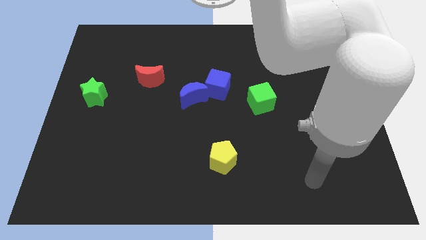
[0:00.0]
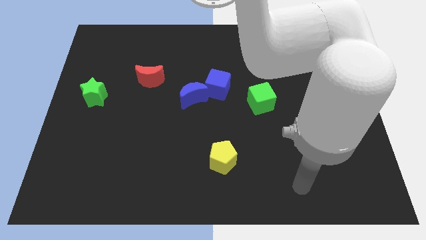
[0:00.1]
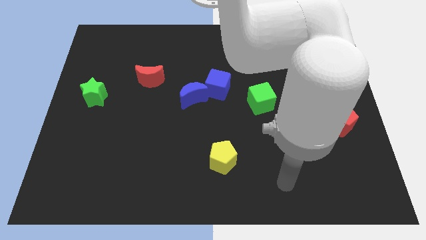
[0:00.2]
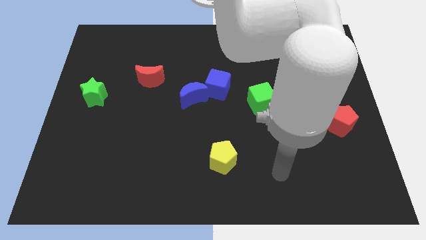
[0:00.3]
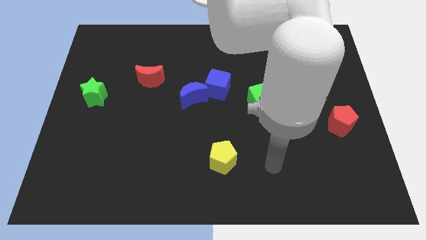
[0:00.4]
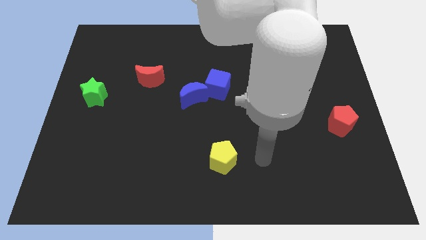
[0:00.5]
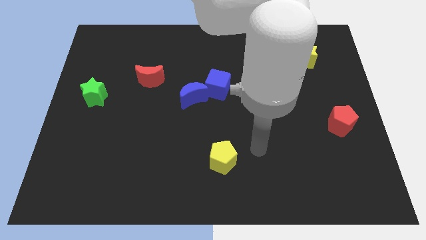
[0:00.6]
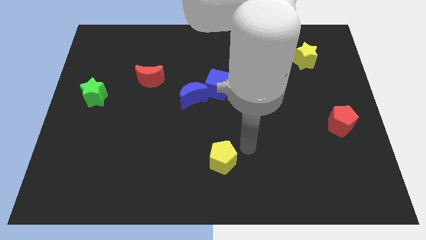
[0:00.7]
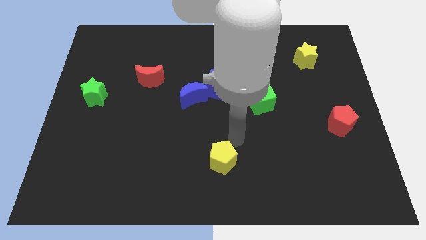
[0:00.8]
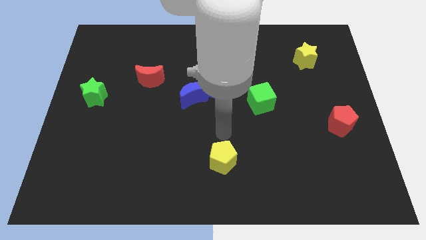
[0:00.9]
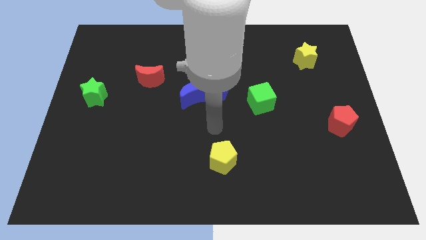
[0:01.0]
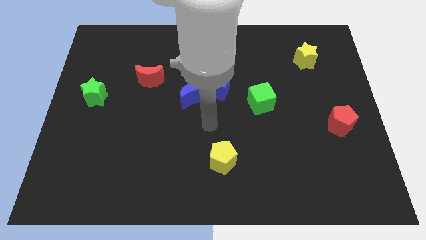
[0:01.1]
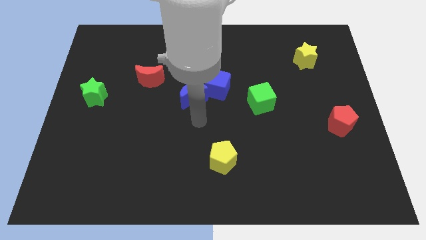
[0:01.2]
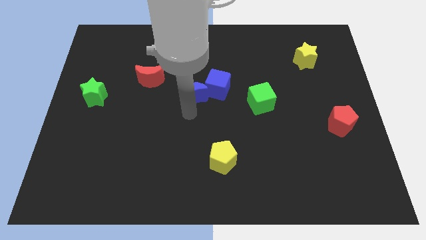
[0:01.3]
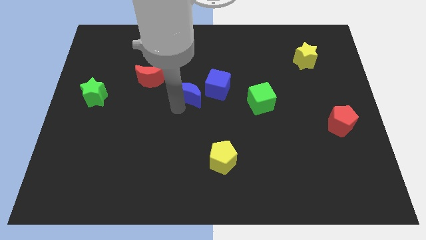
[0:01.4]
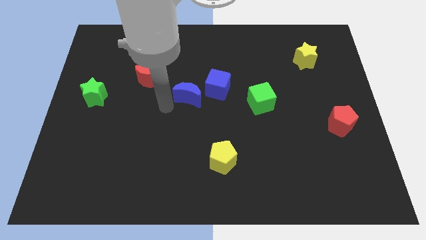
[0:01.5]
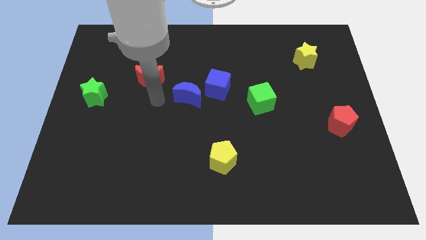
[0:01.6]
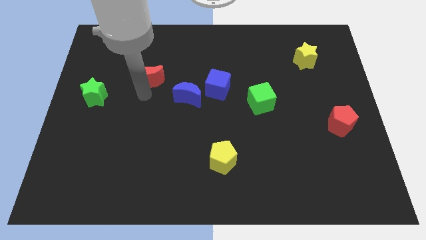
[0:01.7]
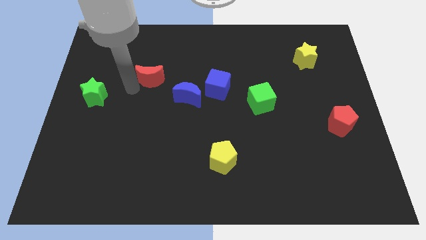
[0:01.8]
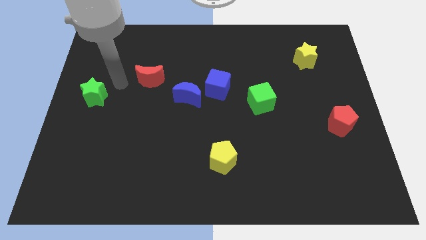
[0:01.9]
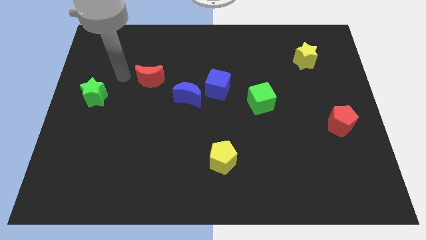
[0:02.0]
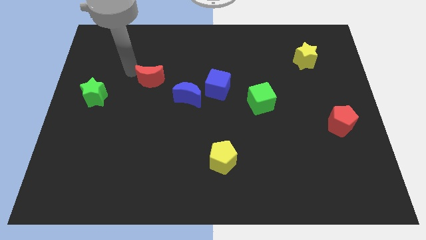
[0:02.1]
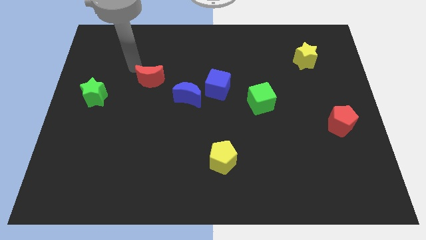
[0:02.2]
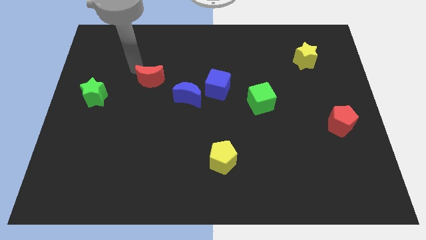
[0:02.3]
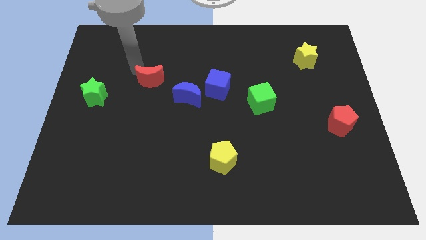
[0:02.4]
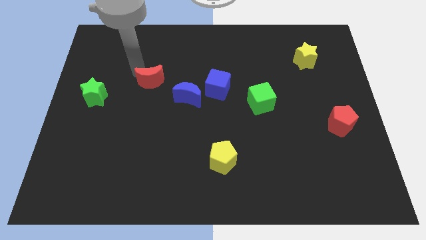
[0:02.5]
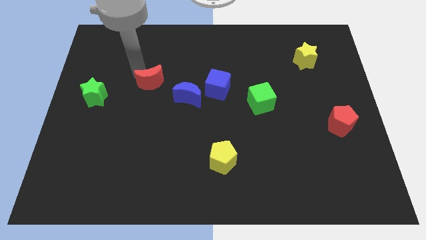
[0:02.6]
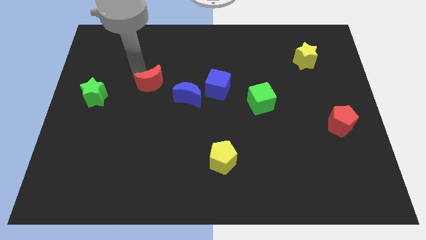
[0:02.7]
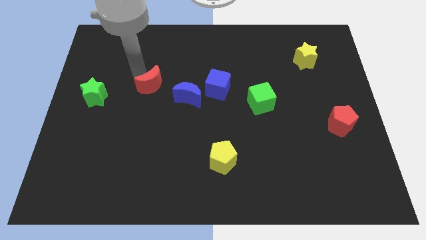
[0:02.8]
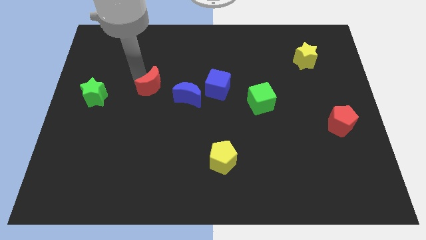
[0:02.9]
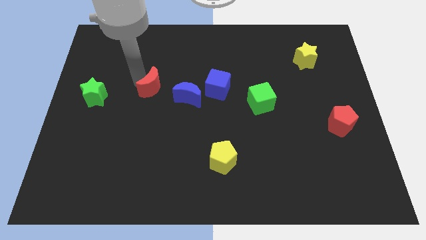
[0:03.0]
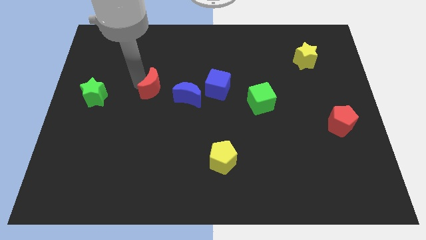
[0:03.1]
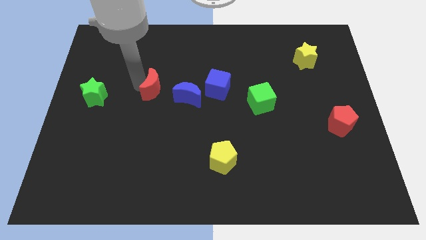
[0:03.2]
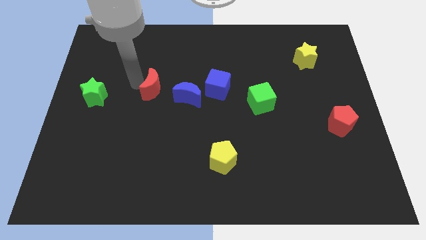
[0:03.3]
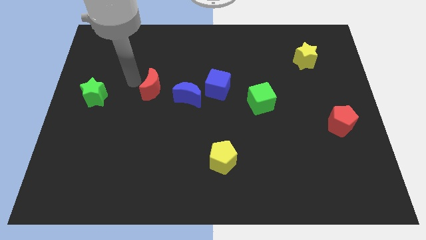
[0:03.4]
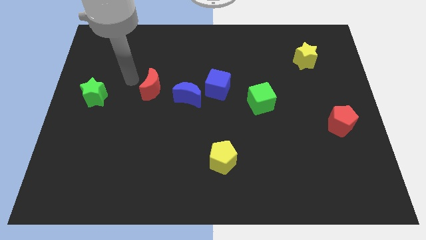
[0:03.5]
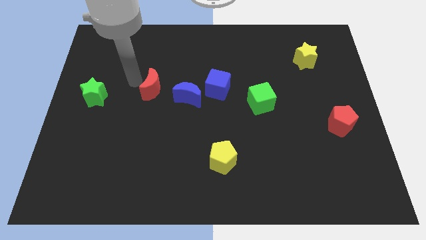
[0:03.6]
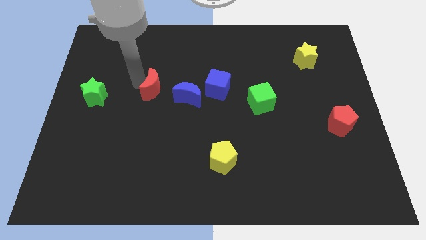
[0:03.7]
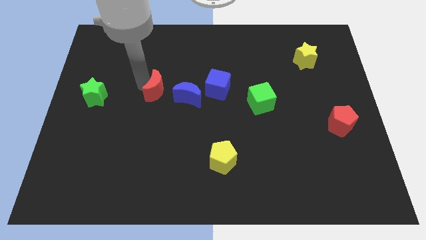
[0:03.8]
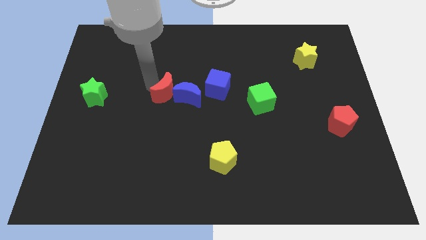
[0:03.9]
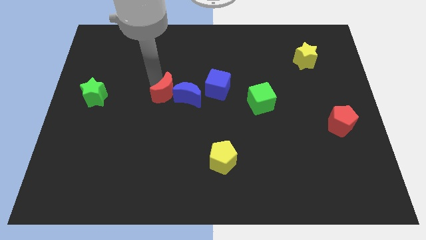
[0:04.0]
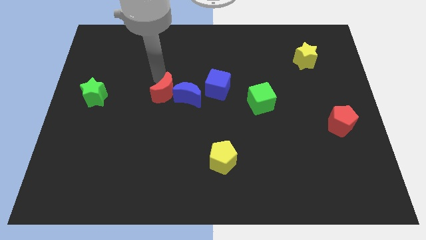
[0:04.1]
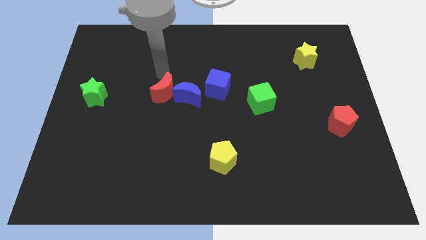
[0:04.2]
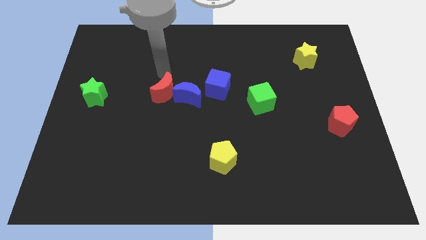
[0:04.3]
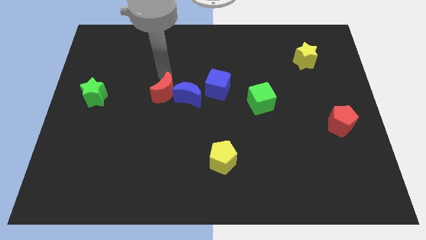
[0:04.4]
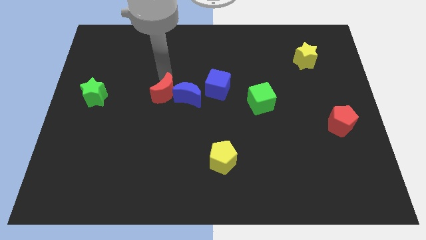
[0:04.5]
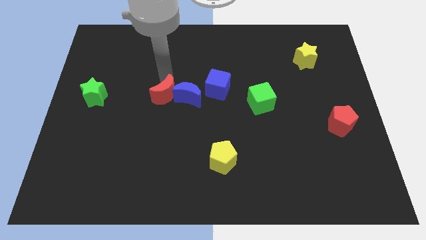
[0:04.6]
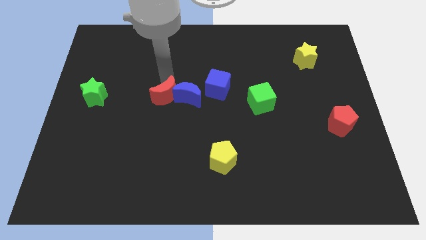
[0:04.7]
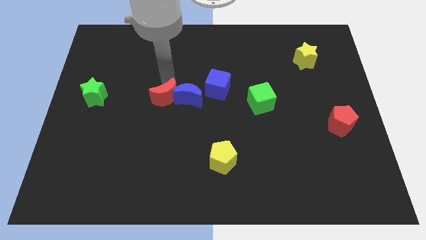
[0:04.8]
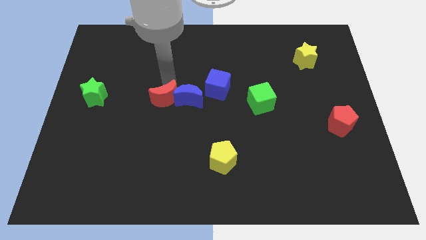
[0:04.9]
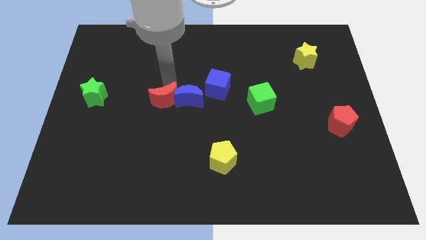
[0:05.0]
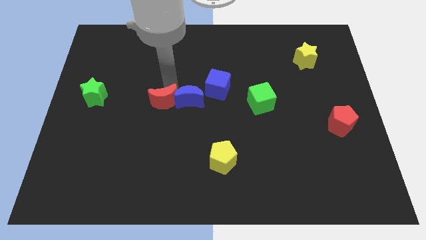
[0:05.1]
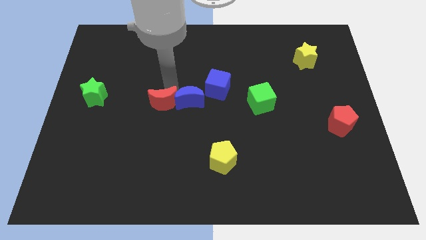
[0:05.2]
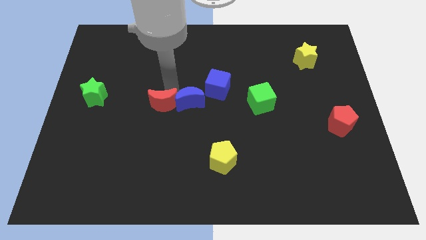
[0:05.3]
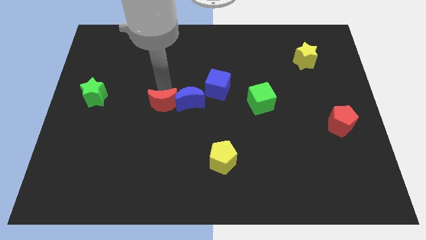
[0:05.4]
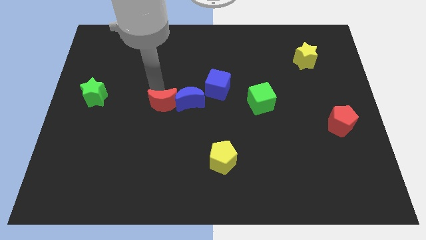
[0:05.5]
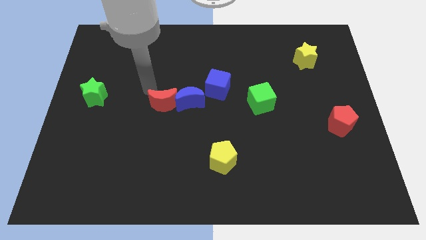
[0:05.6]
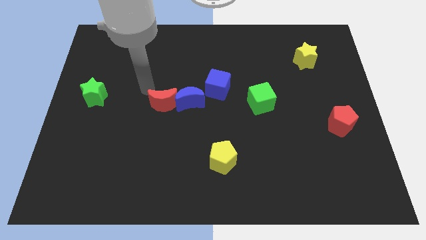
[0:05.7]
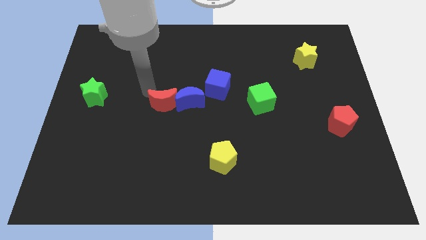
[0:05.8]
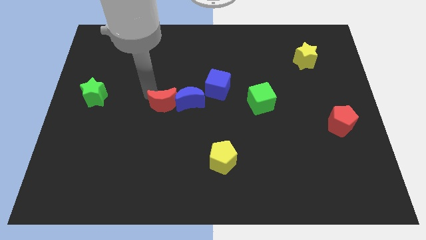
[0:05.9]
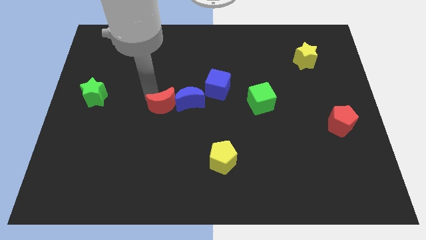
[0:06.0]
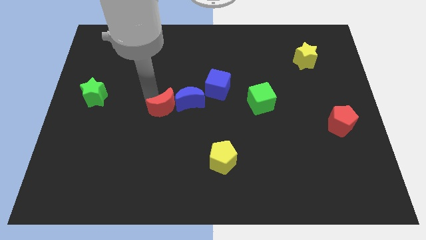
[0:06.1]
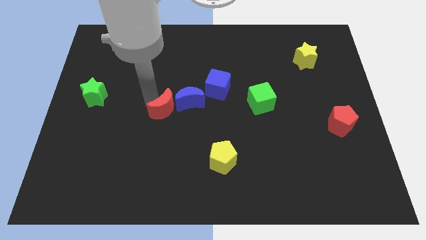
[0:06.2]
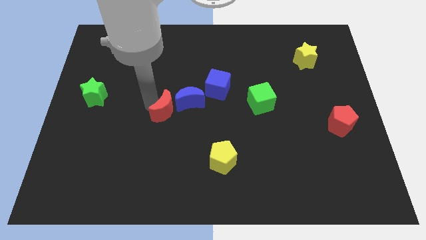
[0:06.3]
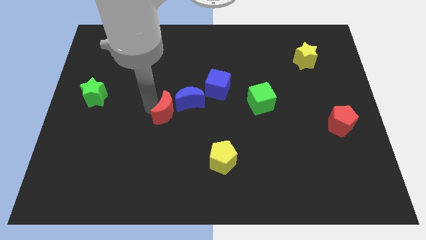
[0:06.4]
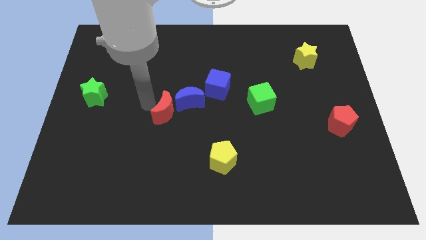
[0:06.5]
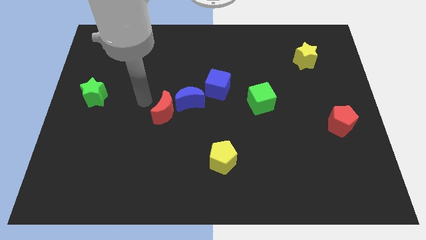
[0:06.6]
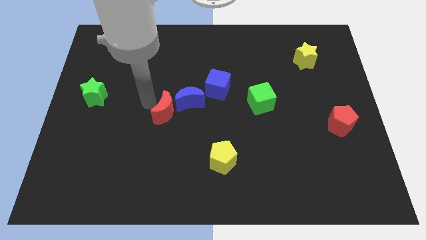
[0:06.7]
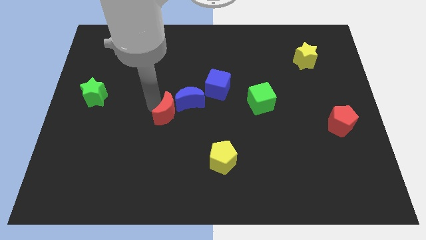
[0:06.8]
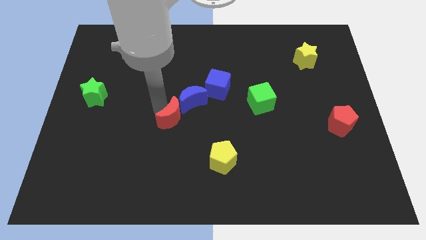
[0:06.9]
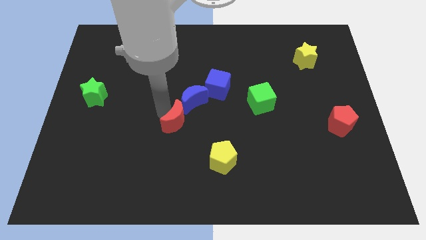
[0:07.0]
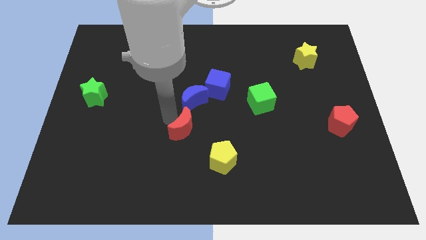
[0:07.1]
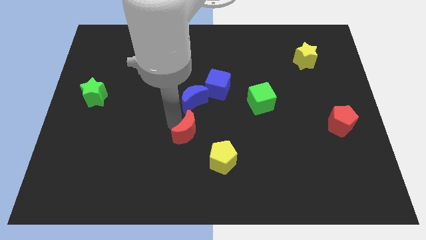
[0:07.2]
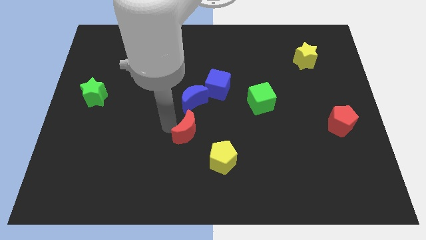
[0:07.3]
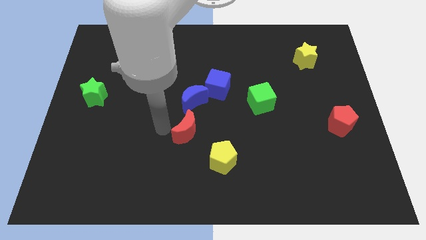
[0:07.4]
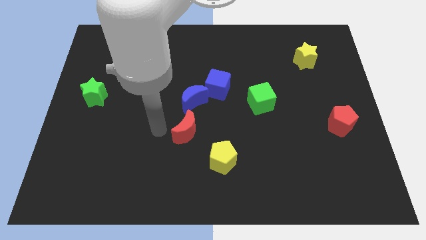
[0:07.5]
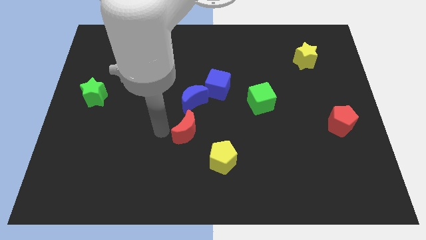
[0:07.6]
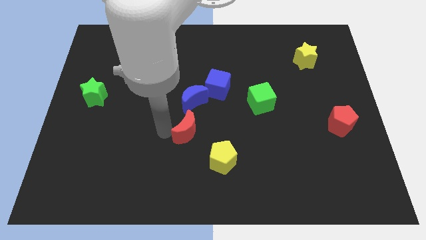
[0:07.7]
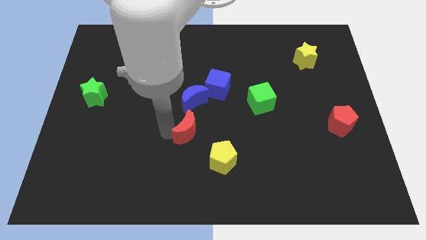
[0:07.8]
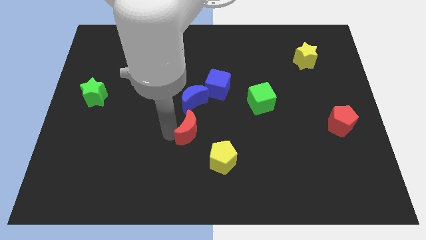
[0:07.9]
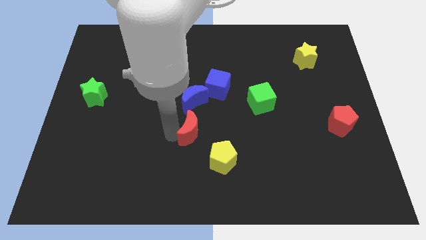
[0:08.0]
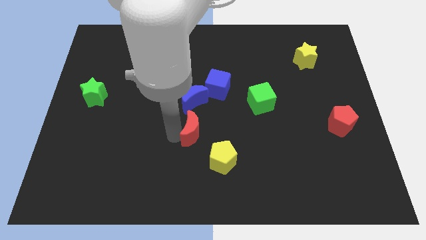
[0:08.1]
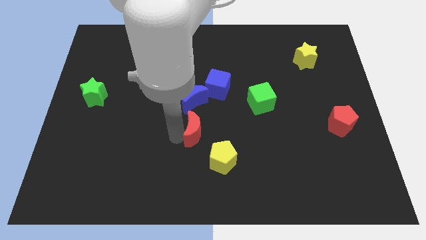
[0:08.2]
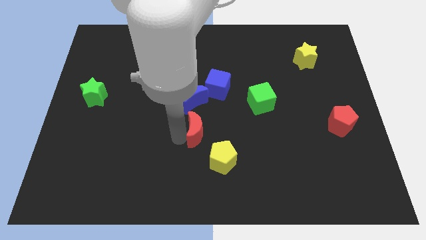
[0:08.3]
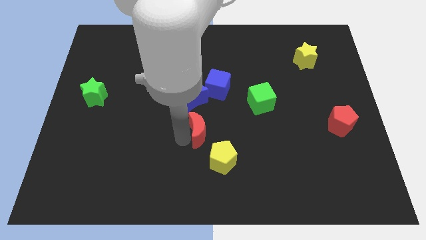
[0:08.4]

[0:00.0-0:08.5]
slide the red moon down and to the right diagonally
